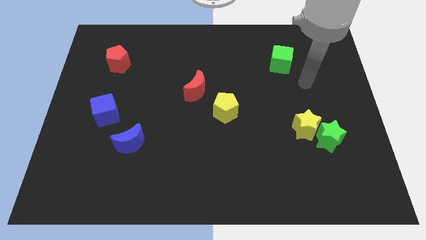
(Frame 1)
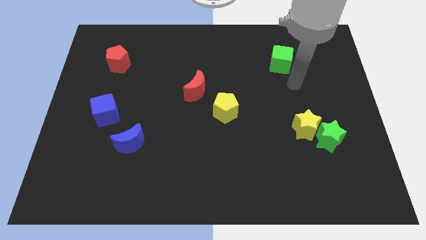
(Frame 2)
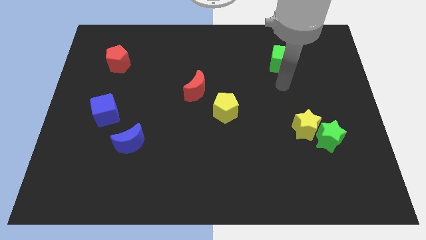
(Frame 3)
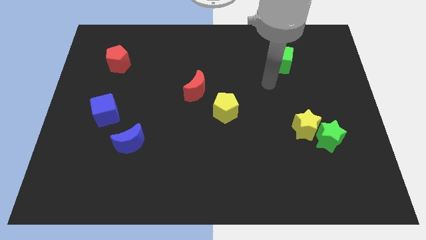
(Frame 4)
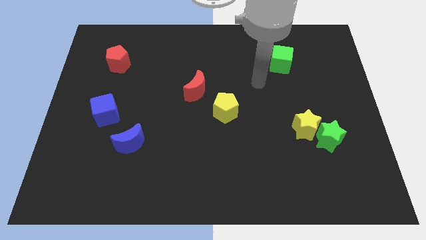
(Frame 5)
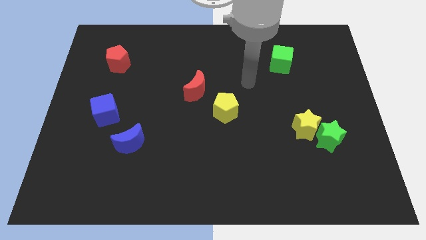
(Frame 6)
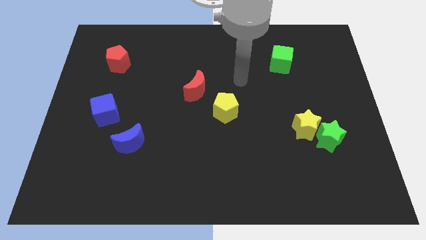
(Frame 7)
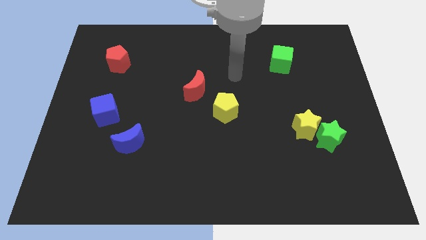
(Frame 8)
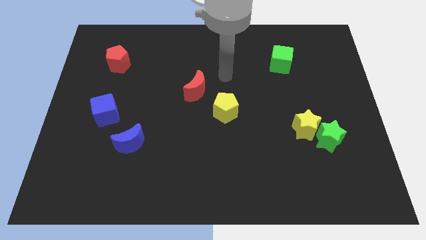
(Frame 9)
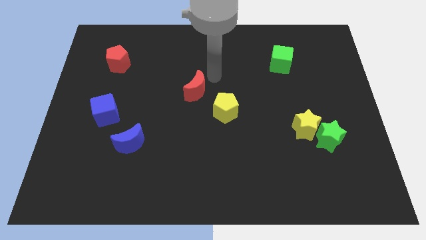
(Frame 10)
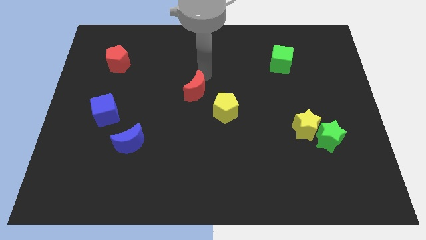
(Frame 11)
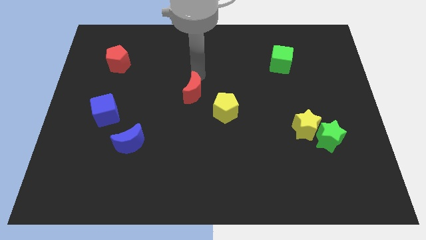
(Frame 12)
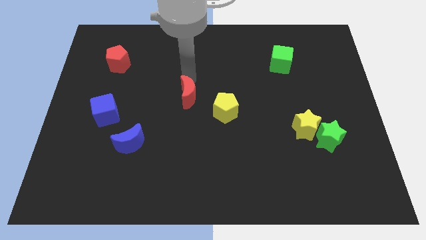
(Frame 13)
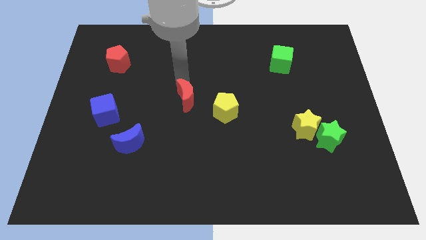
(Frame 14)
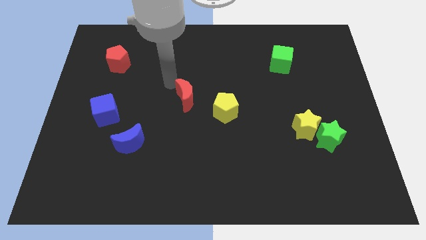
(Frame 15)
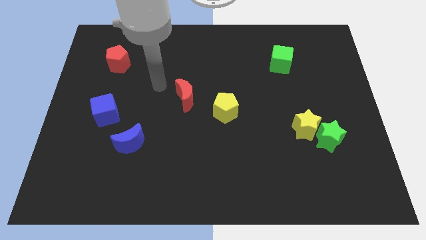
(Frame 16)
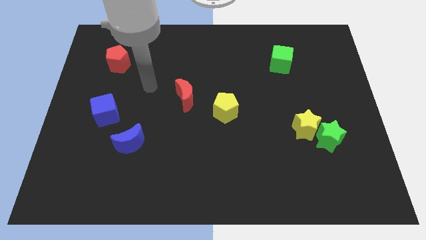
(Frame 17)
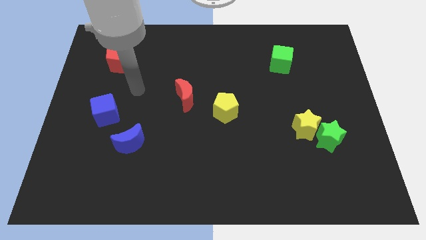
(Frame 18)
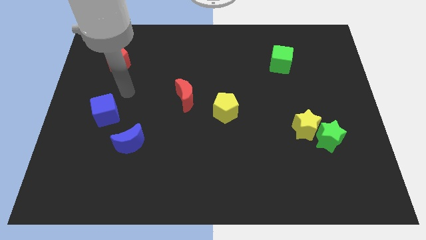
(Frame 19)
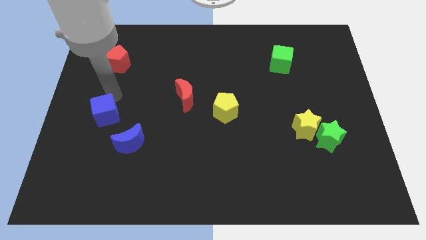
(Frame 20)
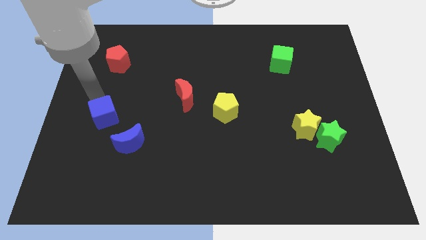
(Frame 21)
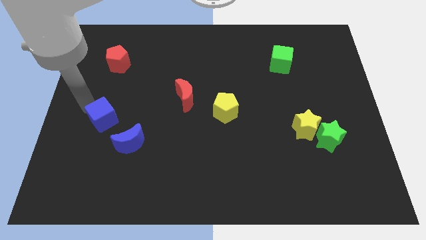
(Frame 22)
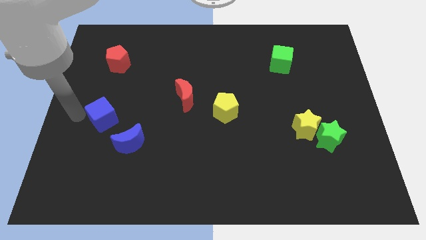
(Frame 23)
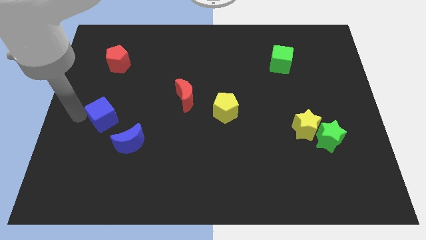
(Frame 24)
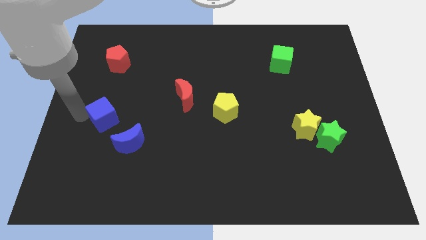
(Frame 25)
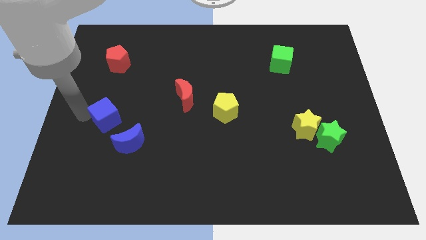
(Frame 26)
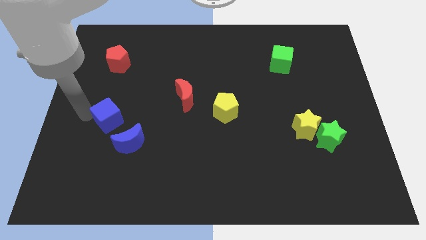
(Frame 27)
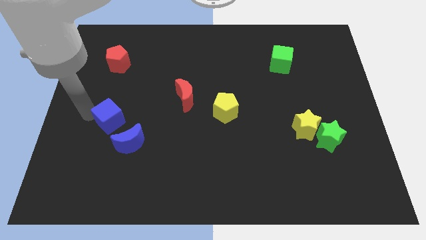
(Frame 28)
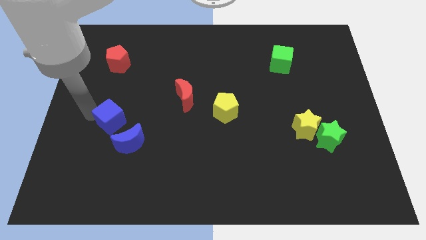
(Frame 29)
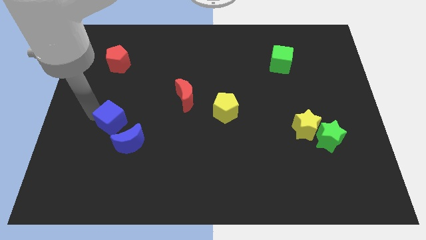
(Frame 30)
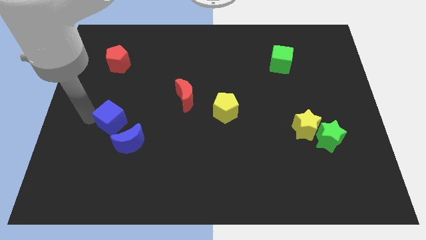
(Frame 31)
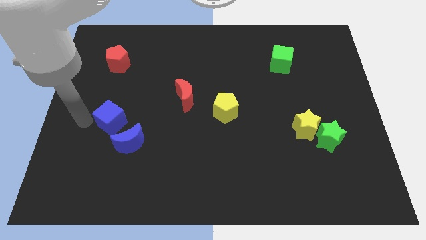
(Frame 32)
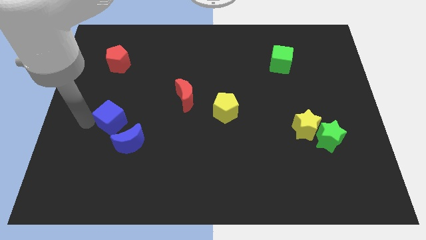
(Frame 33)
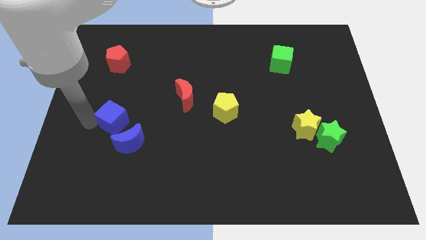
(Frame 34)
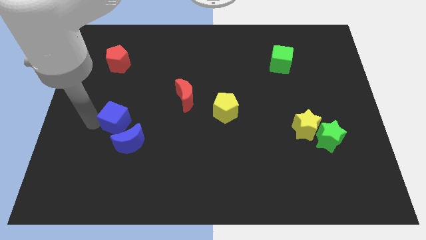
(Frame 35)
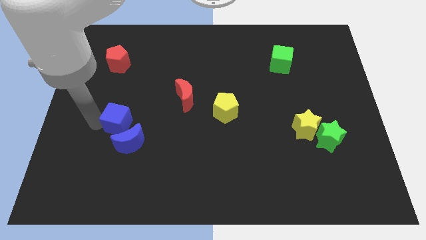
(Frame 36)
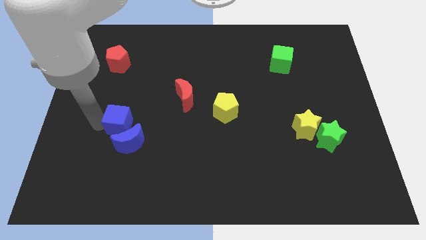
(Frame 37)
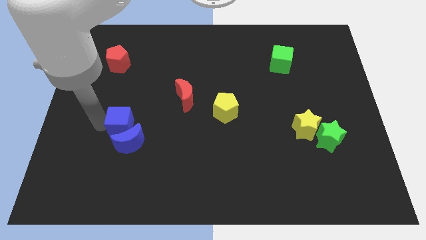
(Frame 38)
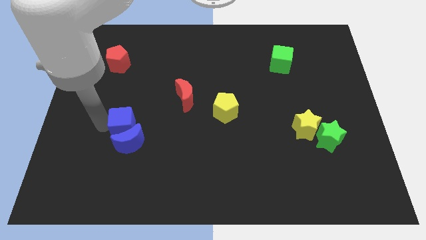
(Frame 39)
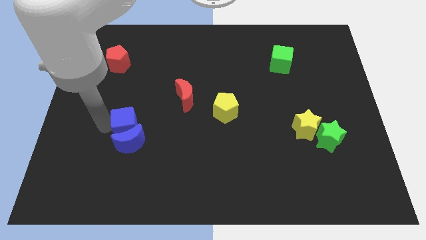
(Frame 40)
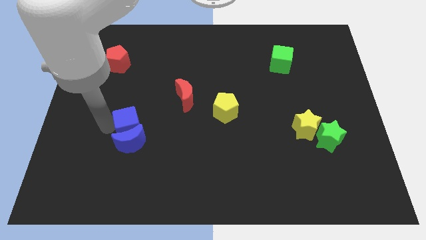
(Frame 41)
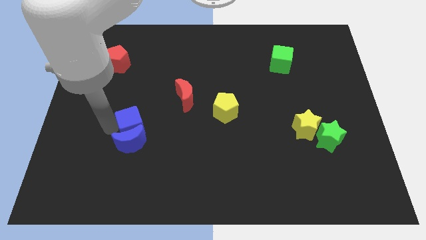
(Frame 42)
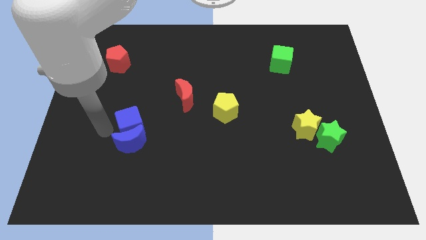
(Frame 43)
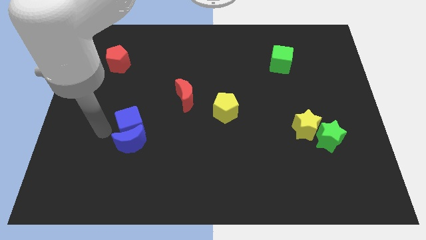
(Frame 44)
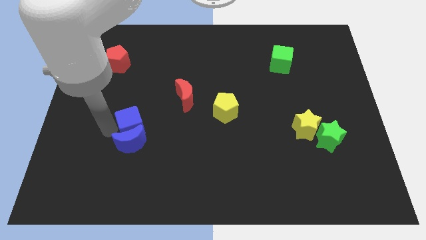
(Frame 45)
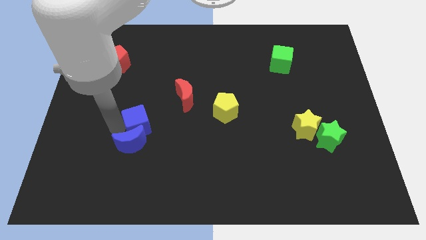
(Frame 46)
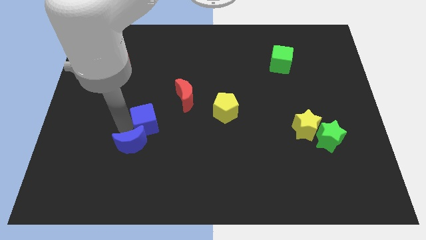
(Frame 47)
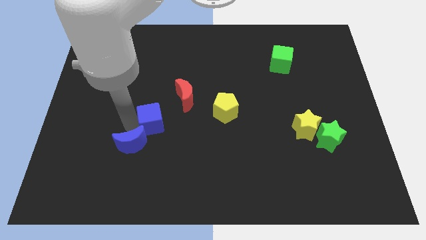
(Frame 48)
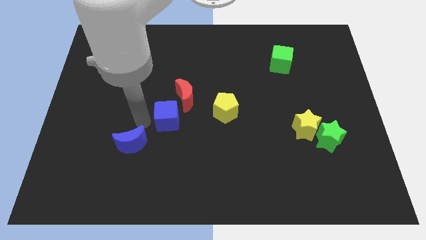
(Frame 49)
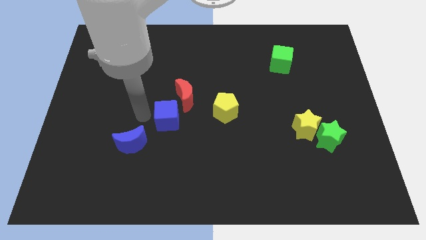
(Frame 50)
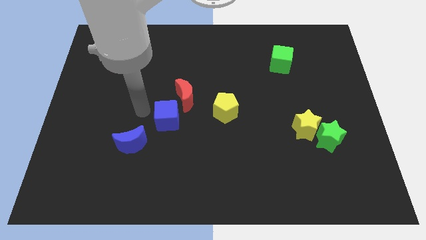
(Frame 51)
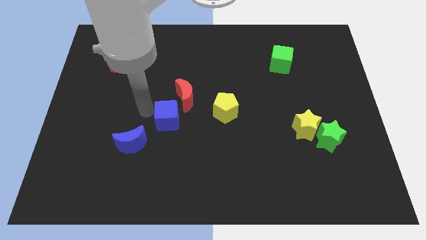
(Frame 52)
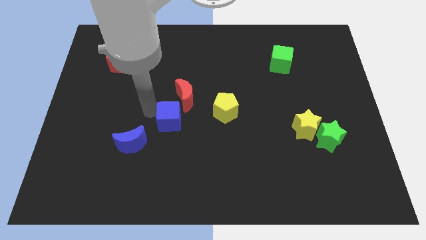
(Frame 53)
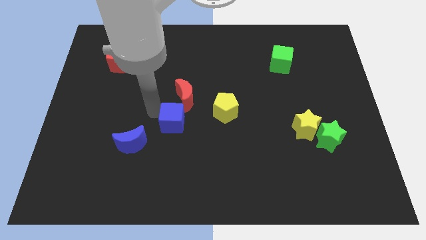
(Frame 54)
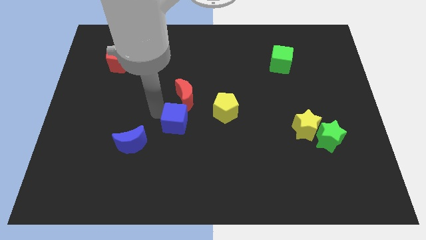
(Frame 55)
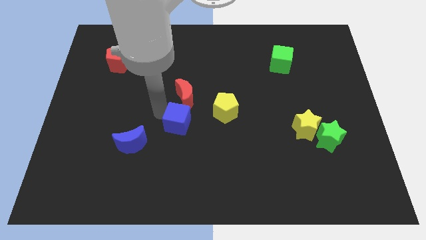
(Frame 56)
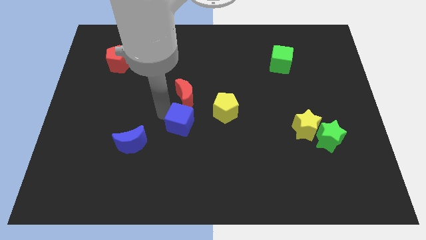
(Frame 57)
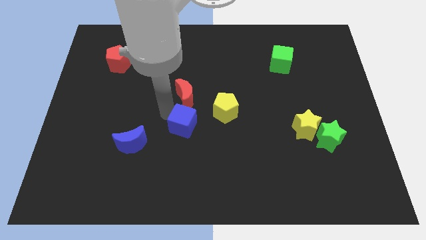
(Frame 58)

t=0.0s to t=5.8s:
slide the blue cube to the bottom left of the yellow pentagon

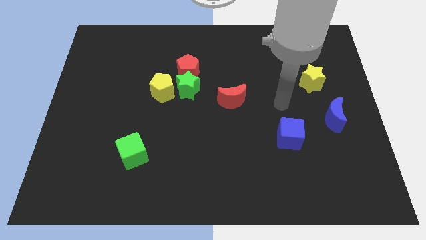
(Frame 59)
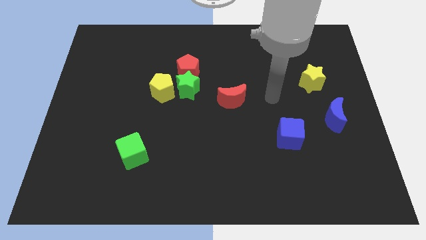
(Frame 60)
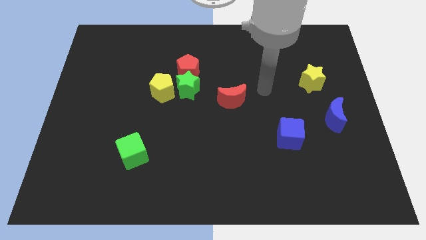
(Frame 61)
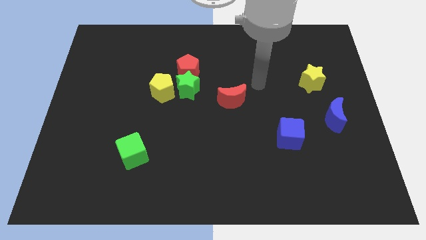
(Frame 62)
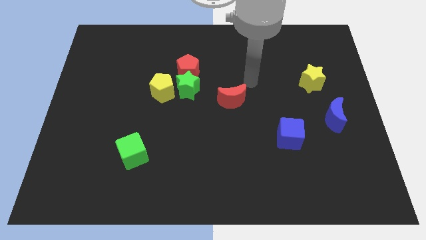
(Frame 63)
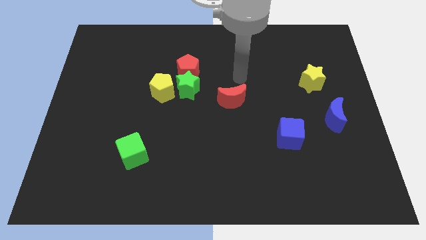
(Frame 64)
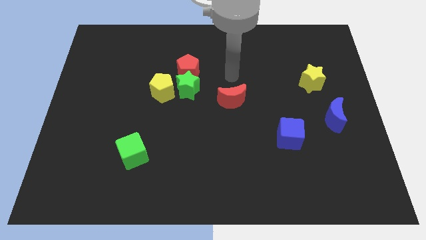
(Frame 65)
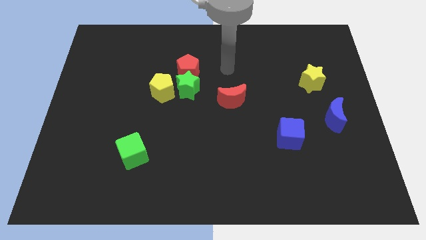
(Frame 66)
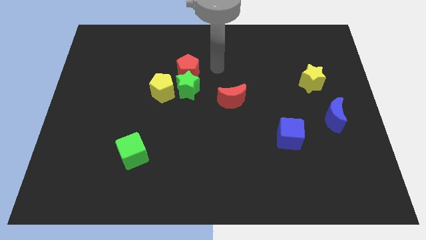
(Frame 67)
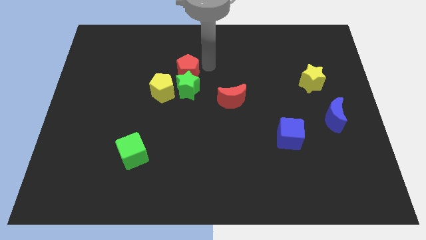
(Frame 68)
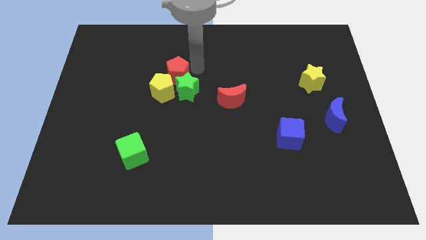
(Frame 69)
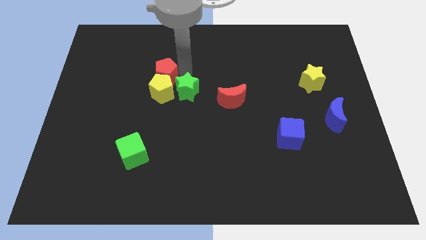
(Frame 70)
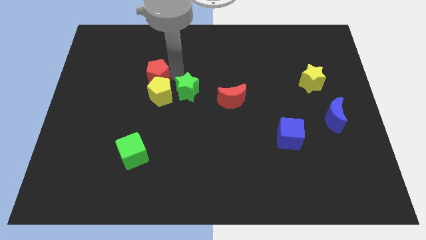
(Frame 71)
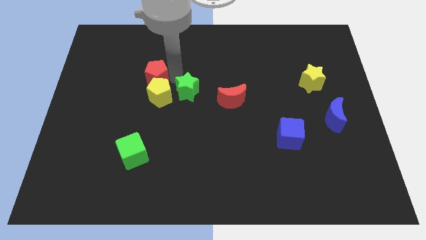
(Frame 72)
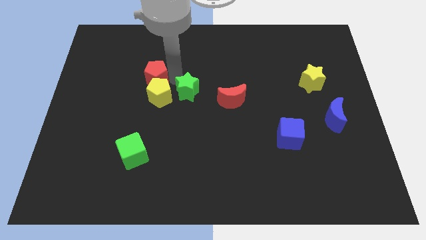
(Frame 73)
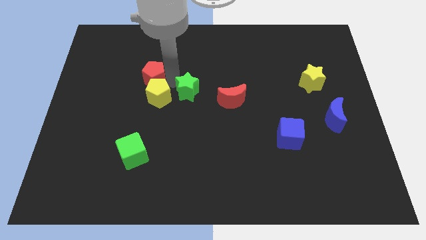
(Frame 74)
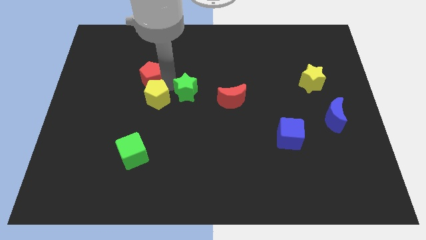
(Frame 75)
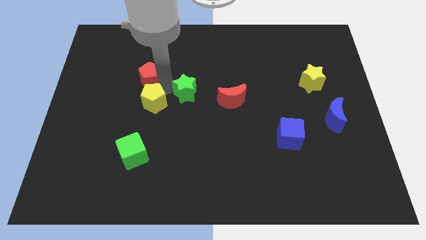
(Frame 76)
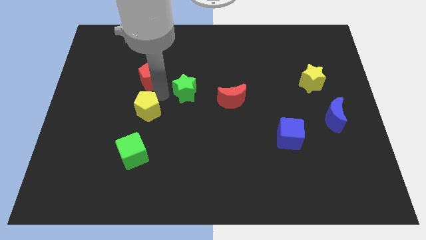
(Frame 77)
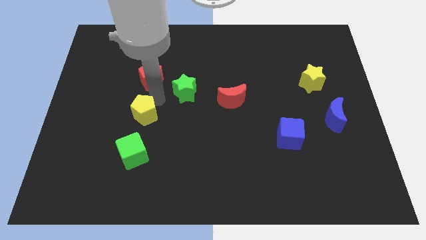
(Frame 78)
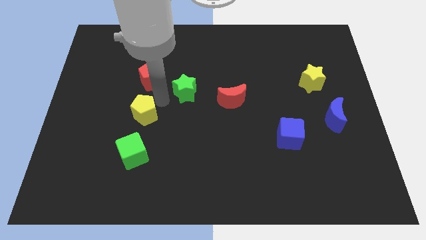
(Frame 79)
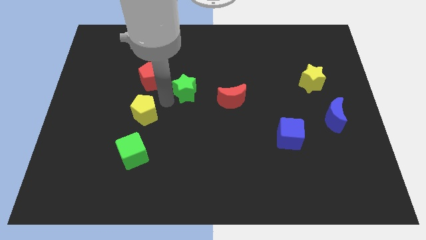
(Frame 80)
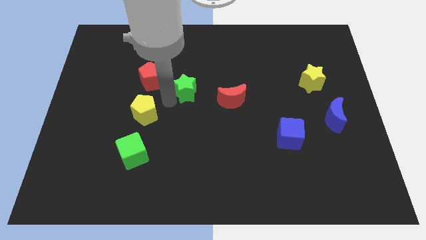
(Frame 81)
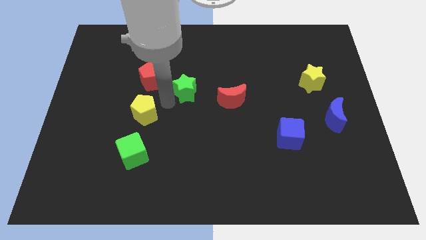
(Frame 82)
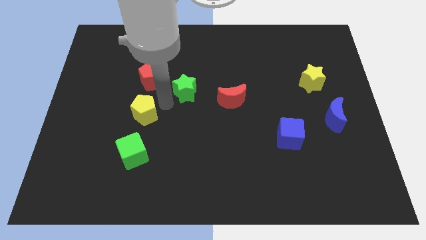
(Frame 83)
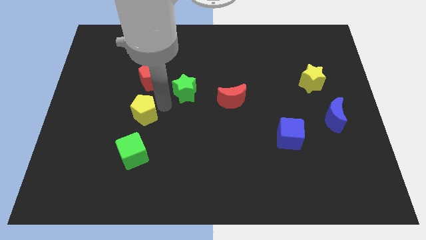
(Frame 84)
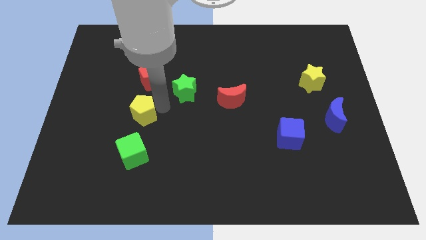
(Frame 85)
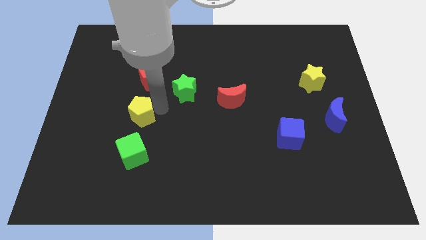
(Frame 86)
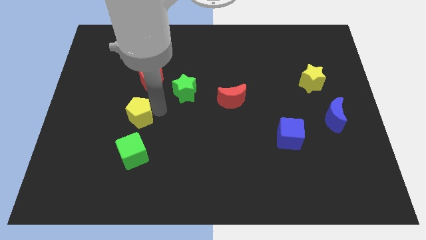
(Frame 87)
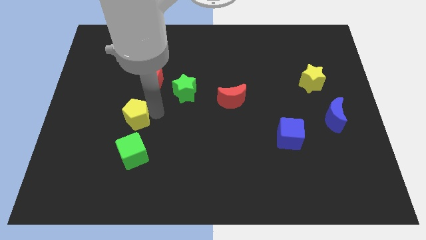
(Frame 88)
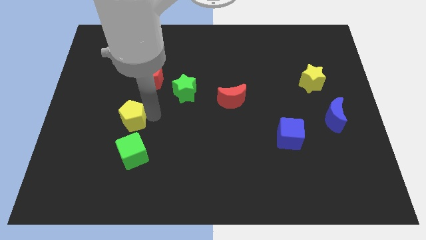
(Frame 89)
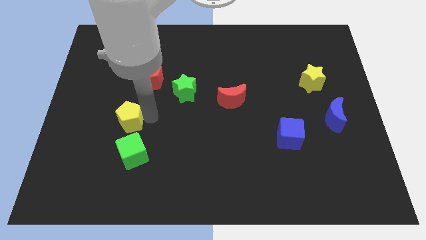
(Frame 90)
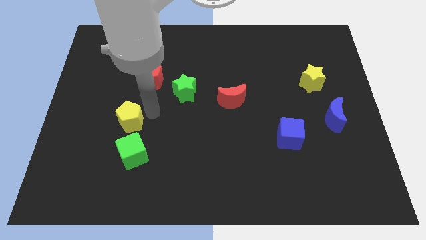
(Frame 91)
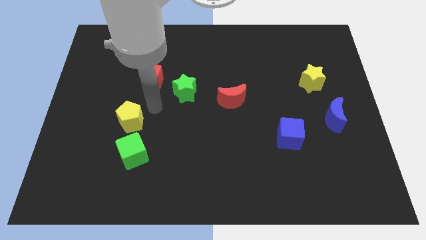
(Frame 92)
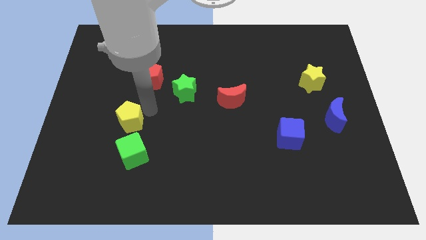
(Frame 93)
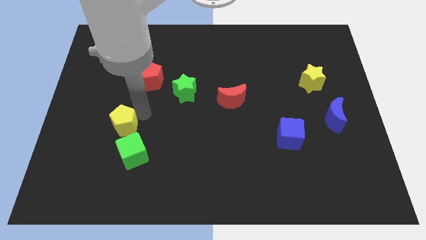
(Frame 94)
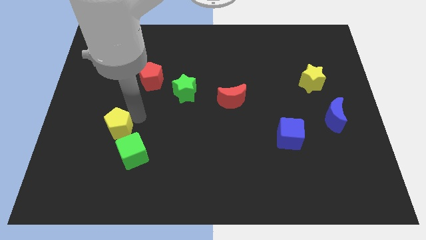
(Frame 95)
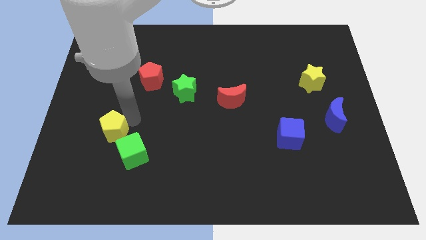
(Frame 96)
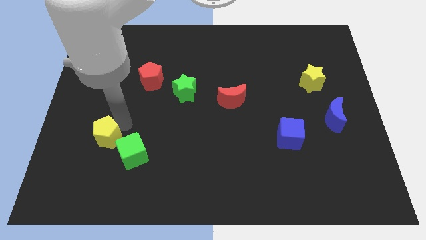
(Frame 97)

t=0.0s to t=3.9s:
slide the yellow pentagon just left of the green cube
